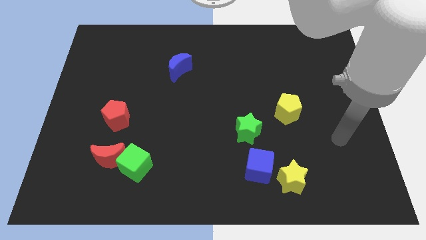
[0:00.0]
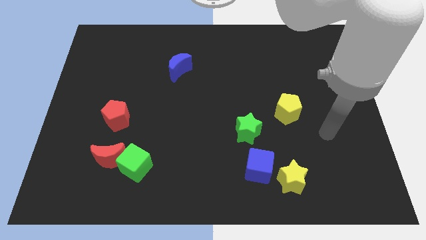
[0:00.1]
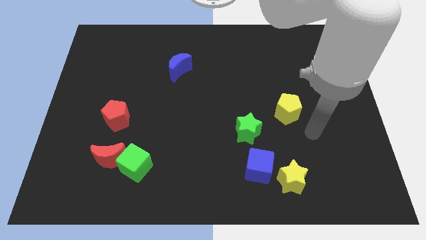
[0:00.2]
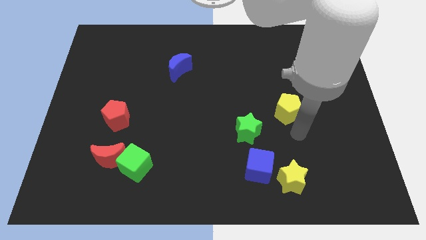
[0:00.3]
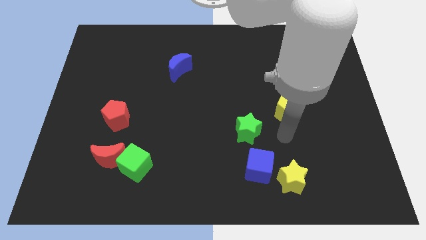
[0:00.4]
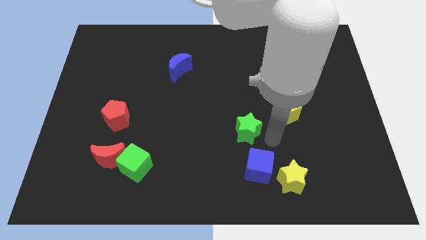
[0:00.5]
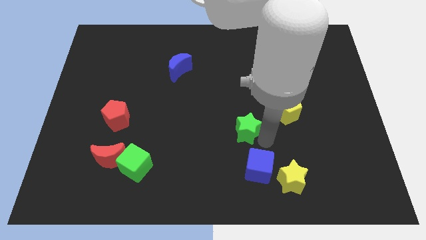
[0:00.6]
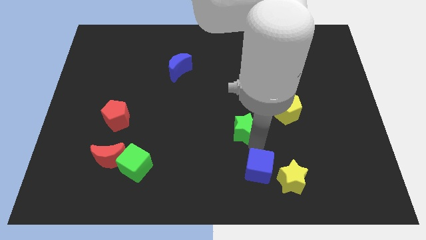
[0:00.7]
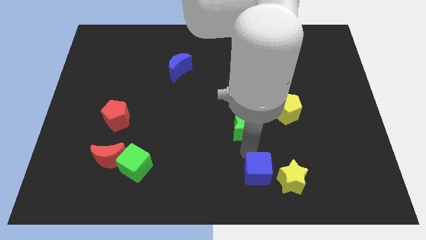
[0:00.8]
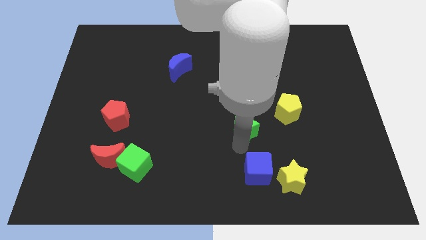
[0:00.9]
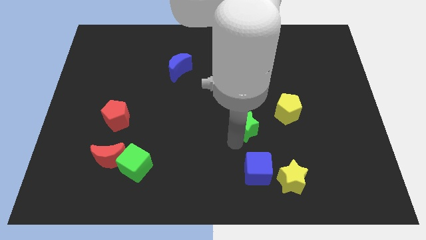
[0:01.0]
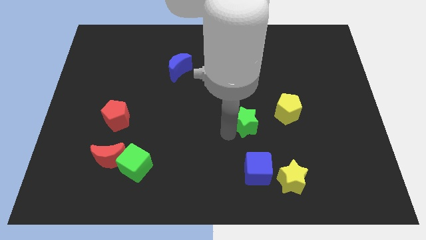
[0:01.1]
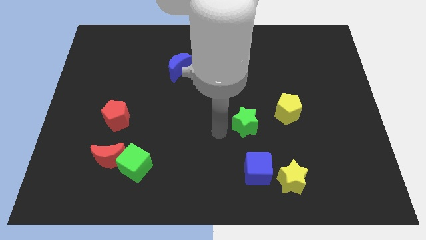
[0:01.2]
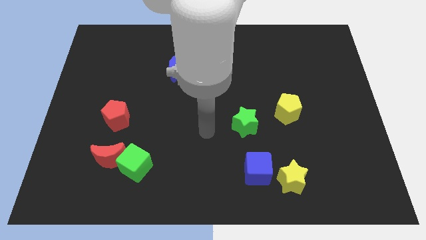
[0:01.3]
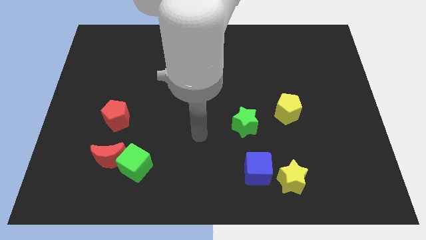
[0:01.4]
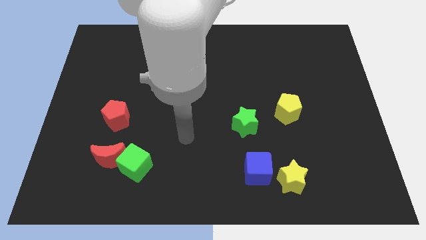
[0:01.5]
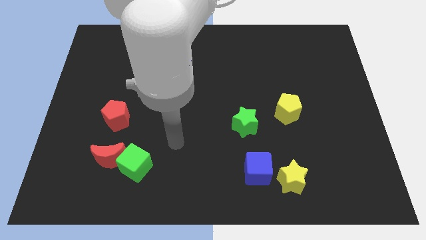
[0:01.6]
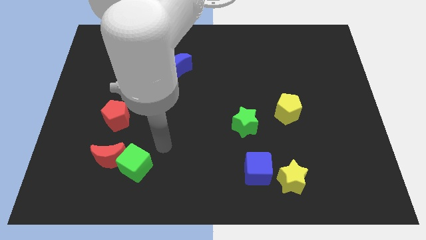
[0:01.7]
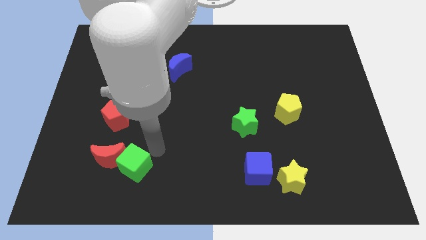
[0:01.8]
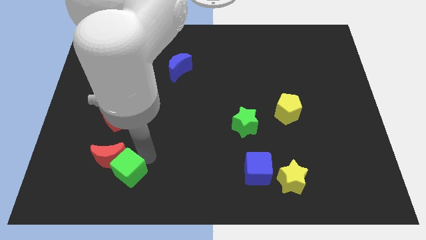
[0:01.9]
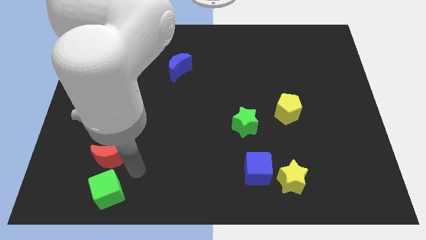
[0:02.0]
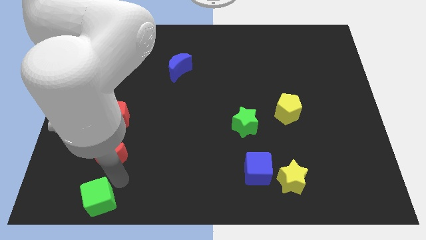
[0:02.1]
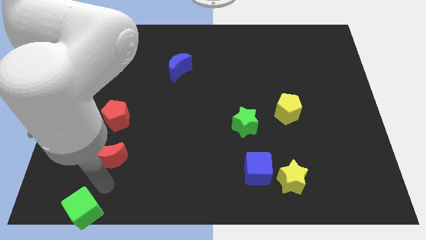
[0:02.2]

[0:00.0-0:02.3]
separate the red moon from the green cube

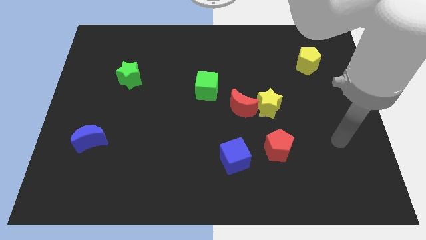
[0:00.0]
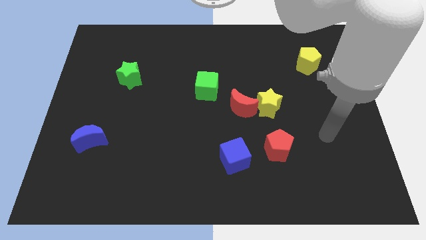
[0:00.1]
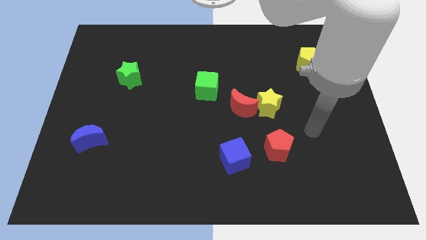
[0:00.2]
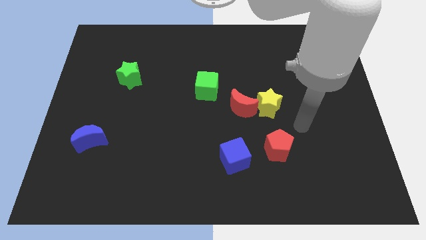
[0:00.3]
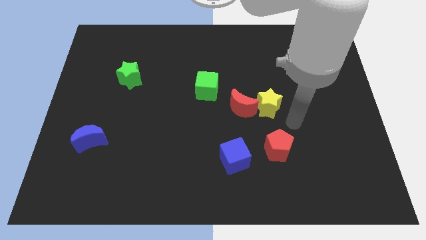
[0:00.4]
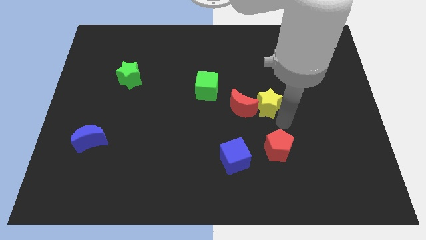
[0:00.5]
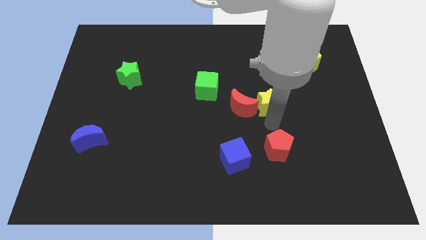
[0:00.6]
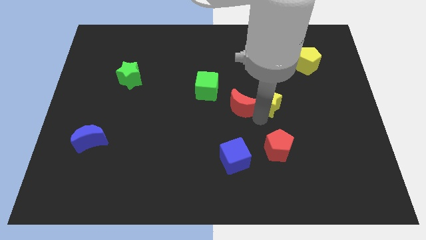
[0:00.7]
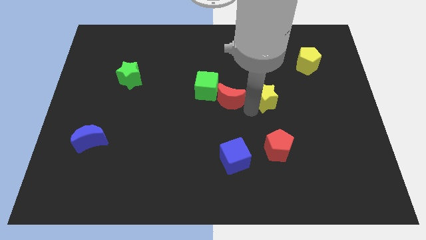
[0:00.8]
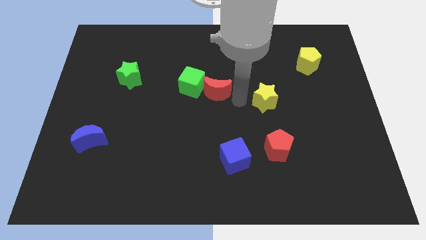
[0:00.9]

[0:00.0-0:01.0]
move the yellow star away from the red moon

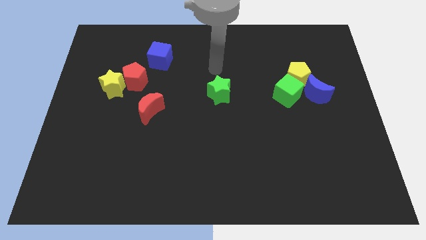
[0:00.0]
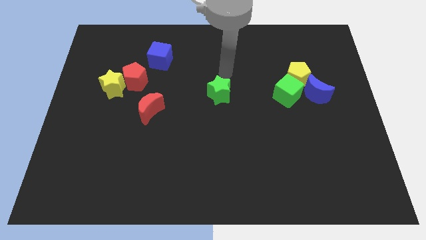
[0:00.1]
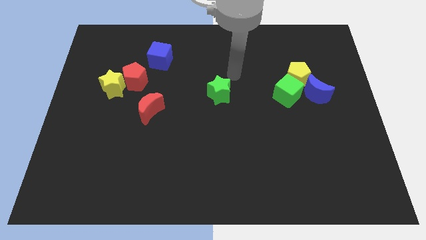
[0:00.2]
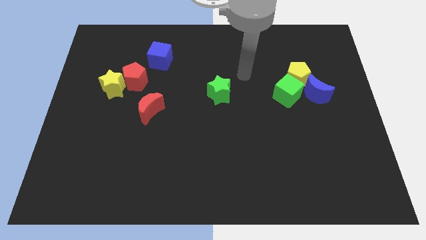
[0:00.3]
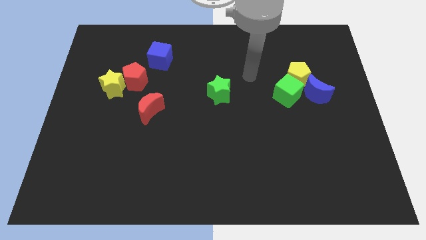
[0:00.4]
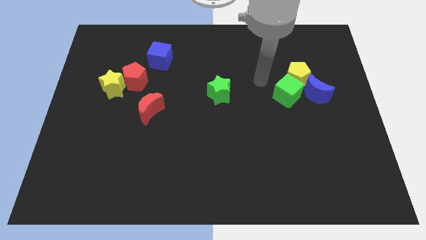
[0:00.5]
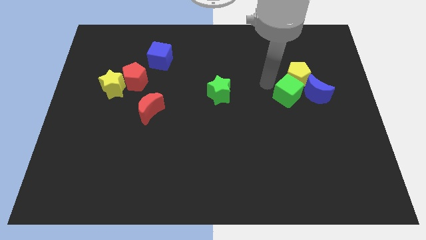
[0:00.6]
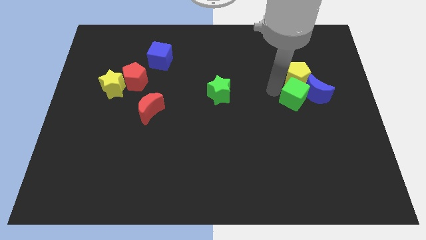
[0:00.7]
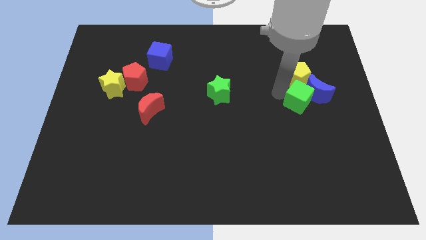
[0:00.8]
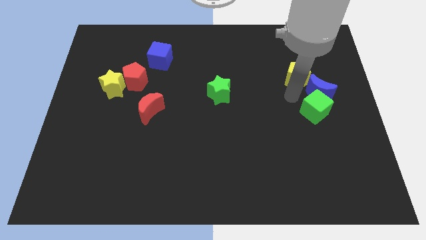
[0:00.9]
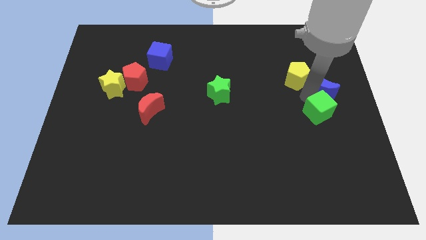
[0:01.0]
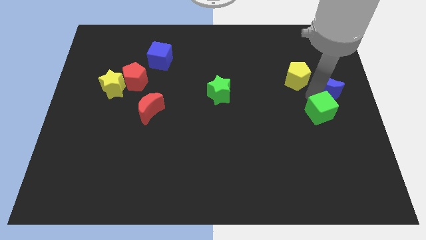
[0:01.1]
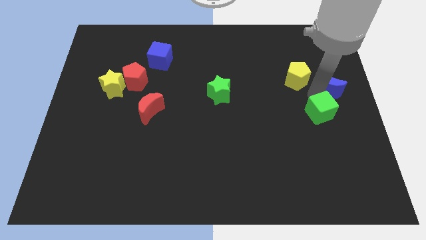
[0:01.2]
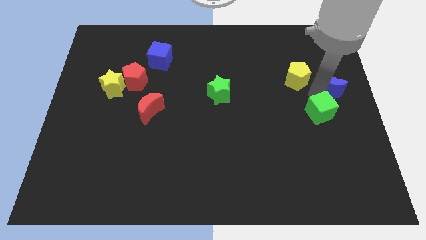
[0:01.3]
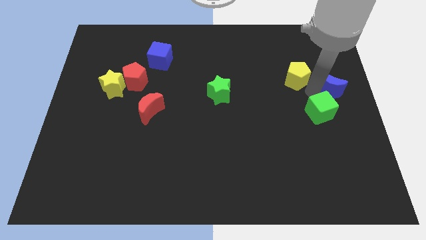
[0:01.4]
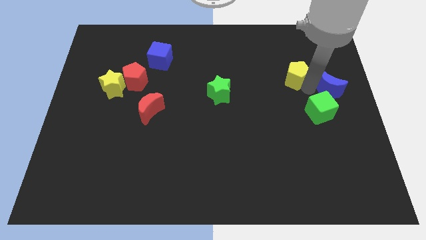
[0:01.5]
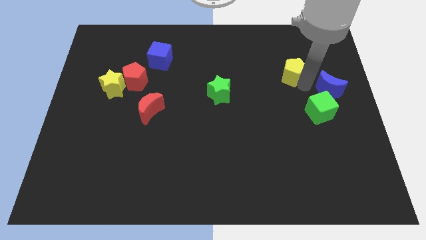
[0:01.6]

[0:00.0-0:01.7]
separate the yellow pentagon from the green cube and blue moon

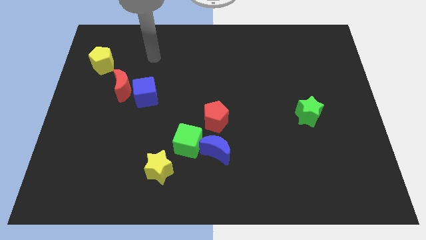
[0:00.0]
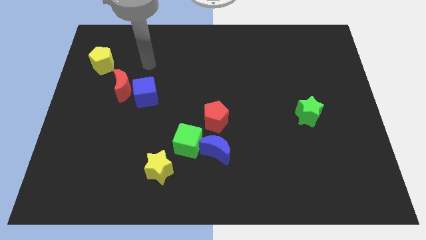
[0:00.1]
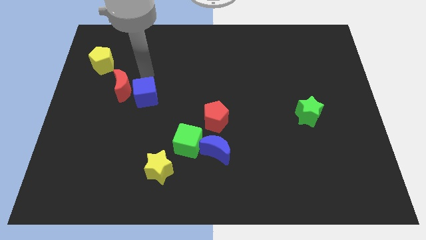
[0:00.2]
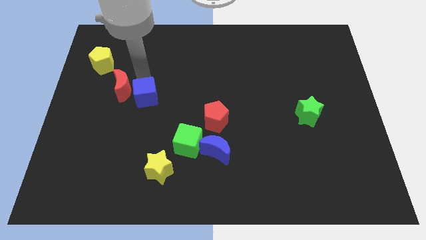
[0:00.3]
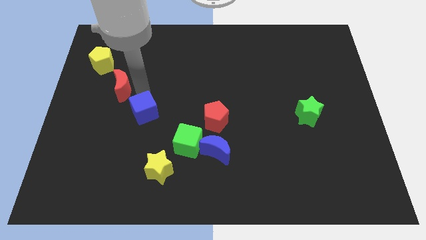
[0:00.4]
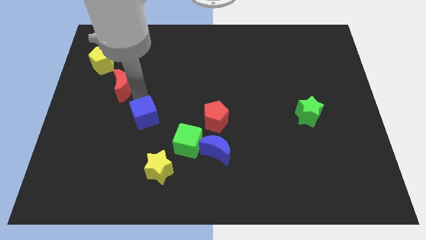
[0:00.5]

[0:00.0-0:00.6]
pull the red moon apart from the blue cube

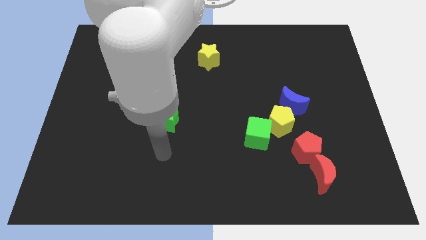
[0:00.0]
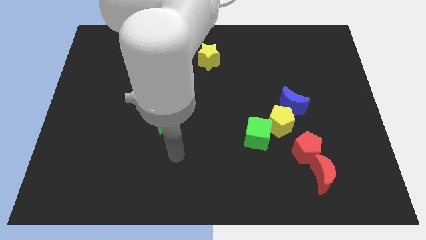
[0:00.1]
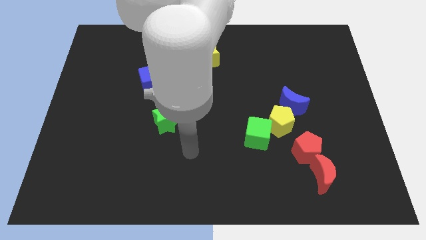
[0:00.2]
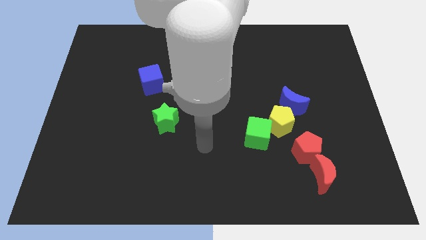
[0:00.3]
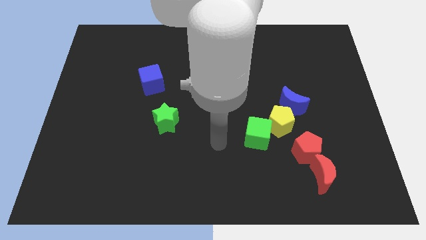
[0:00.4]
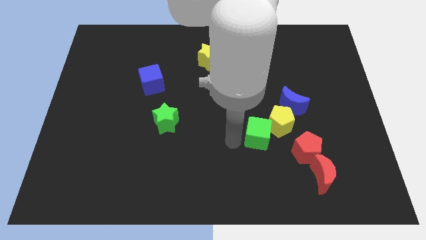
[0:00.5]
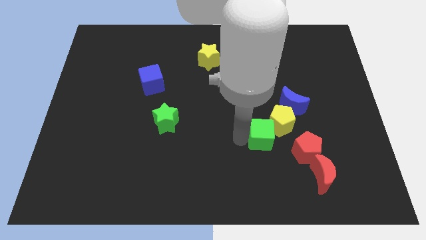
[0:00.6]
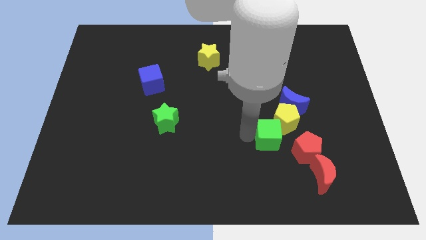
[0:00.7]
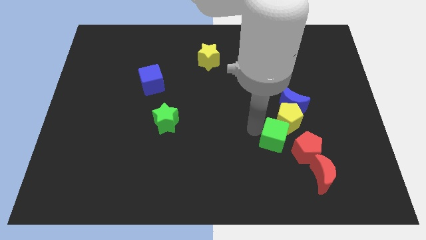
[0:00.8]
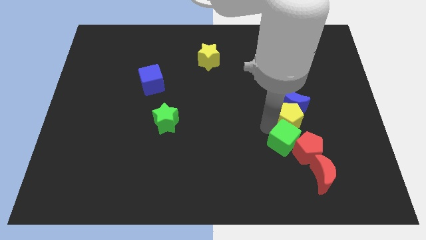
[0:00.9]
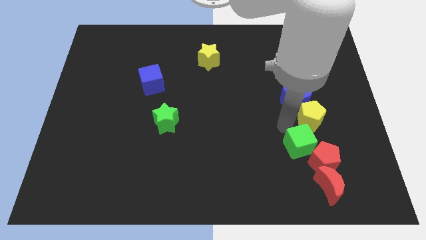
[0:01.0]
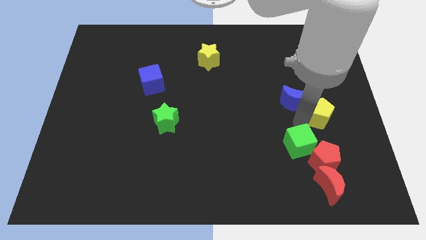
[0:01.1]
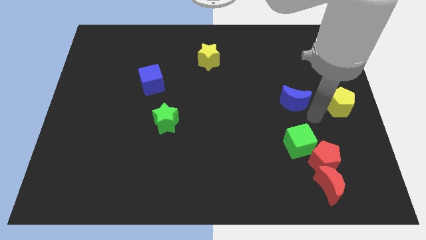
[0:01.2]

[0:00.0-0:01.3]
separate the blue moon from the yellow pentagon

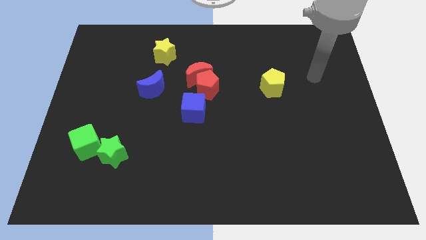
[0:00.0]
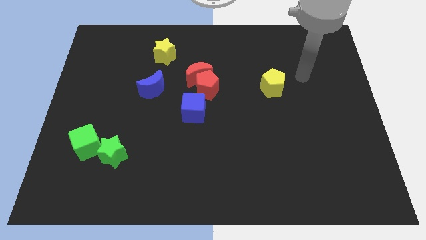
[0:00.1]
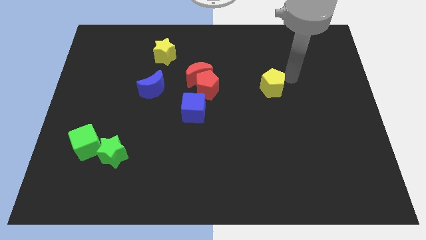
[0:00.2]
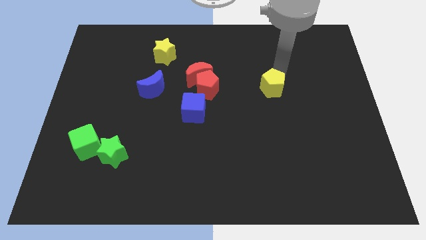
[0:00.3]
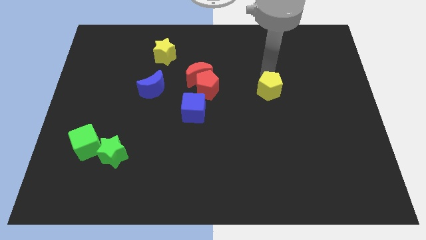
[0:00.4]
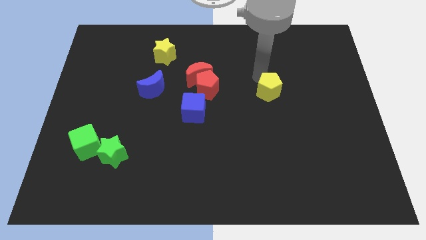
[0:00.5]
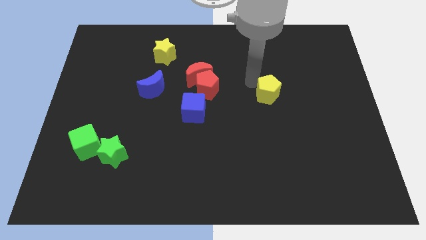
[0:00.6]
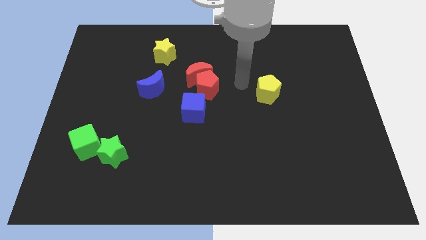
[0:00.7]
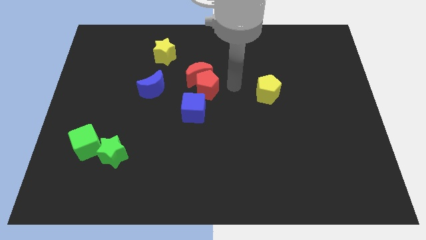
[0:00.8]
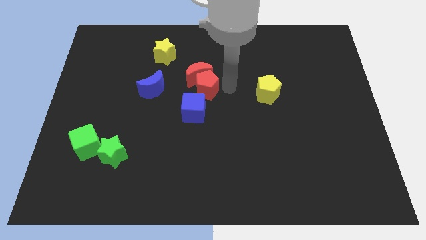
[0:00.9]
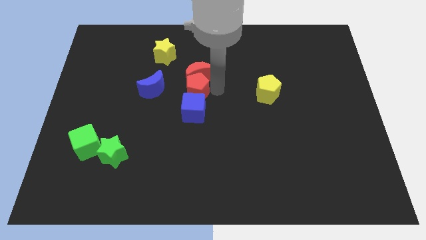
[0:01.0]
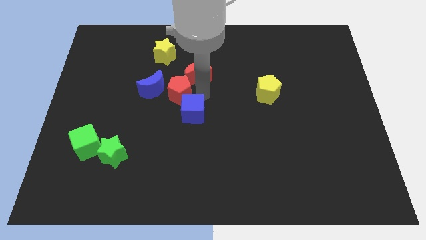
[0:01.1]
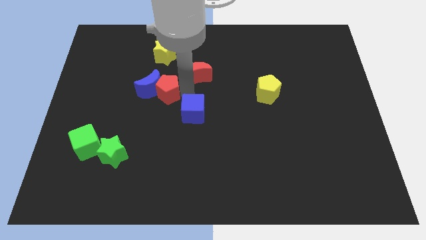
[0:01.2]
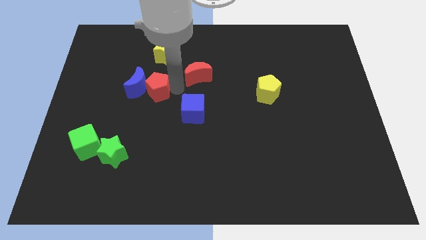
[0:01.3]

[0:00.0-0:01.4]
move the red moon away from the red pentagon

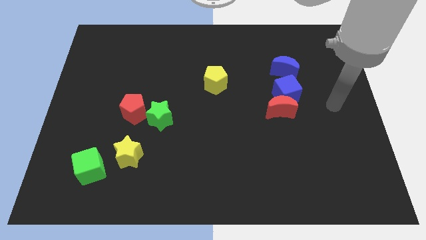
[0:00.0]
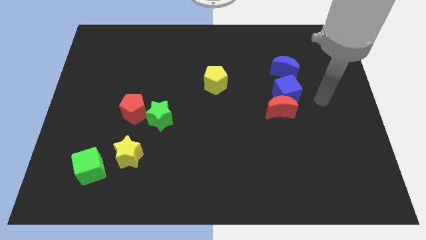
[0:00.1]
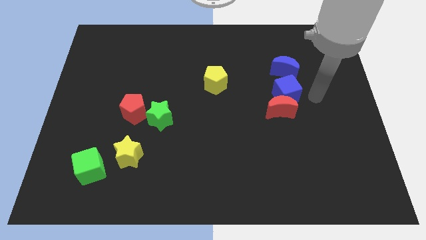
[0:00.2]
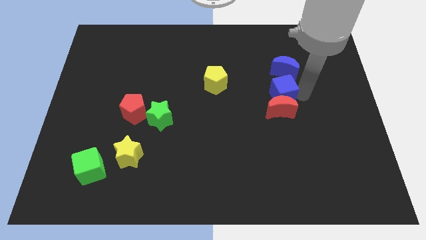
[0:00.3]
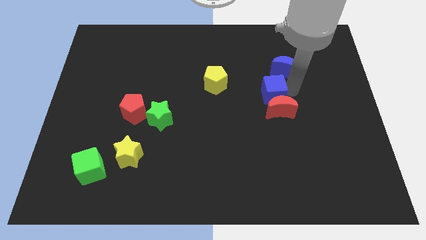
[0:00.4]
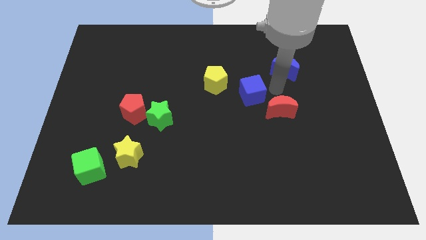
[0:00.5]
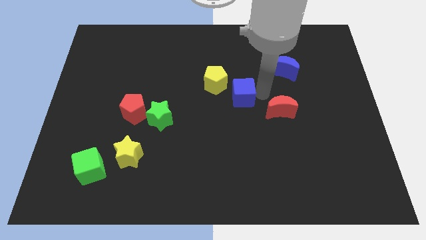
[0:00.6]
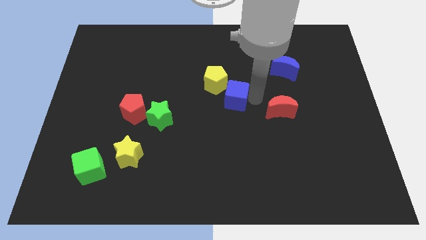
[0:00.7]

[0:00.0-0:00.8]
separate the red moon from the blue cube

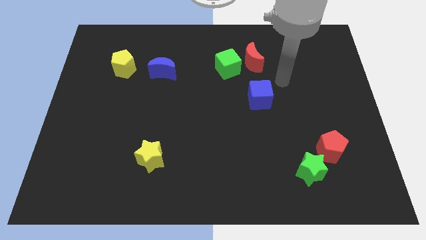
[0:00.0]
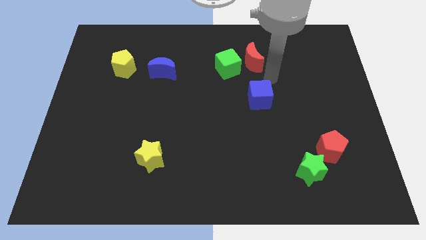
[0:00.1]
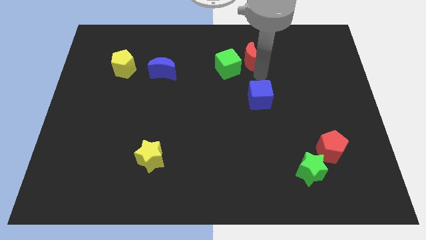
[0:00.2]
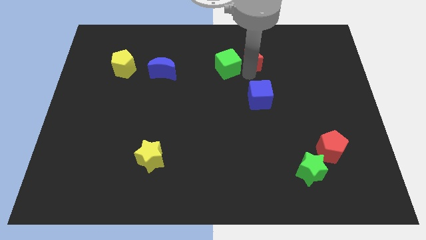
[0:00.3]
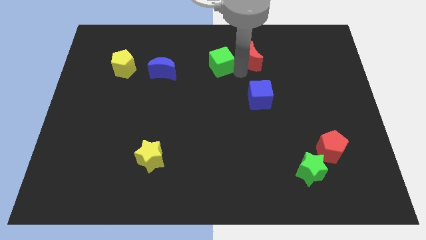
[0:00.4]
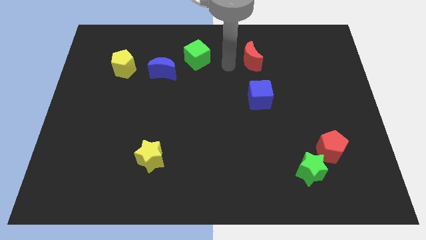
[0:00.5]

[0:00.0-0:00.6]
pull the red moon apart from the green cube
